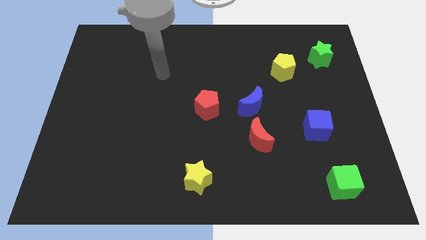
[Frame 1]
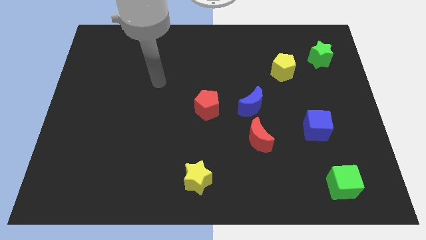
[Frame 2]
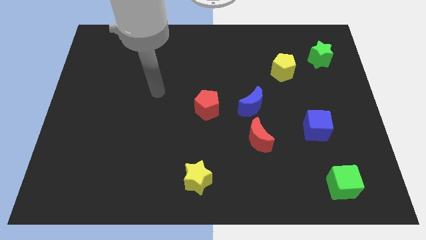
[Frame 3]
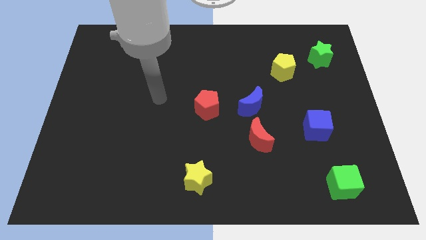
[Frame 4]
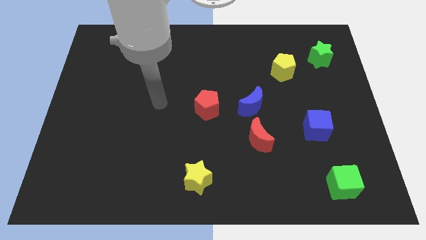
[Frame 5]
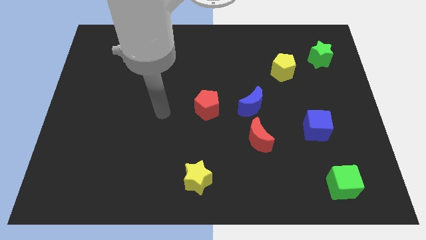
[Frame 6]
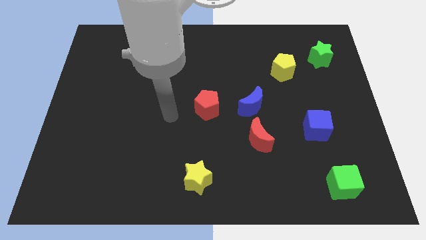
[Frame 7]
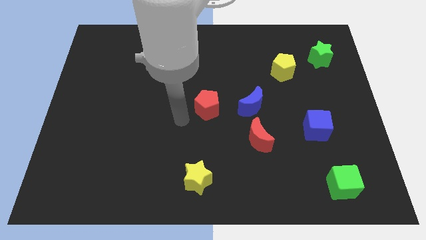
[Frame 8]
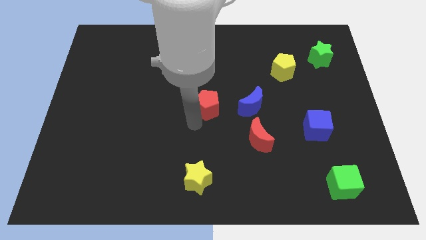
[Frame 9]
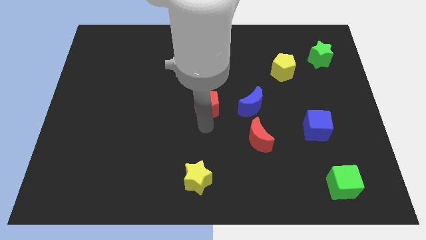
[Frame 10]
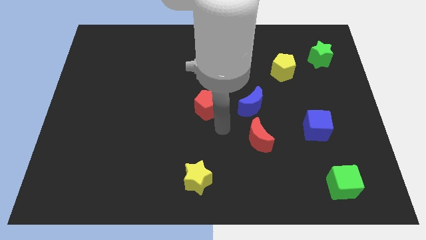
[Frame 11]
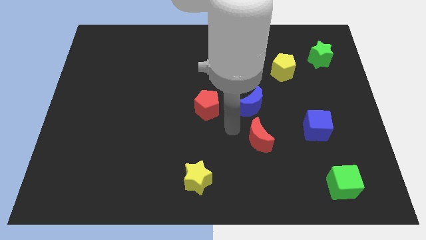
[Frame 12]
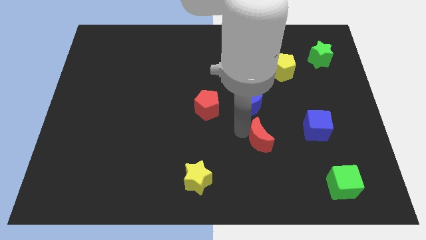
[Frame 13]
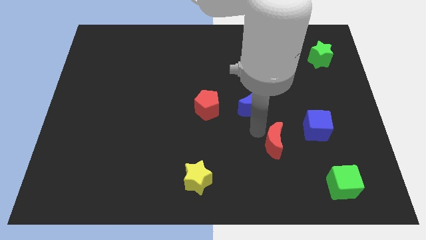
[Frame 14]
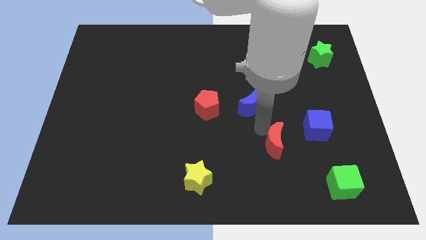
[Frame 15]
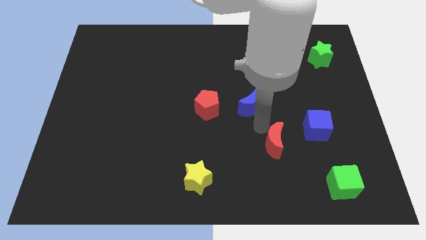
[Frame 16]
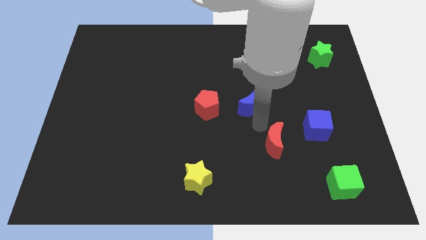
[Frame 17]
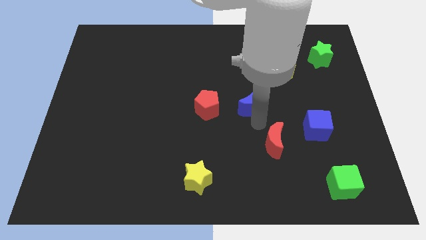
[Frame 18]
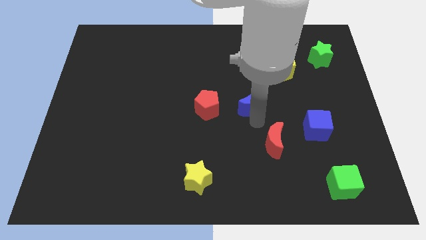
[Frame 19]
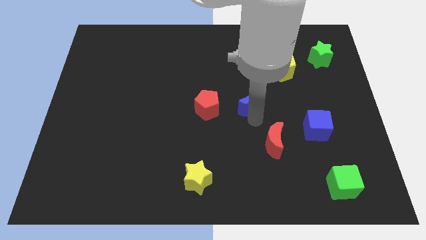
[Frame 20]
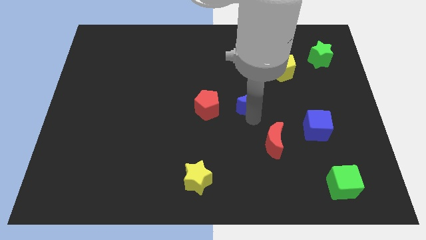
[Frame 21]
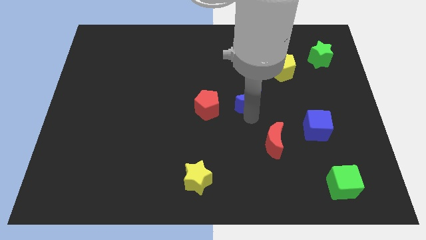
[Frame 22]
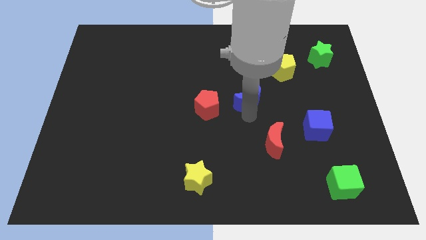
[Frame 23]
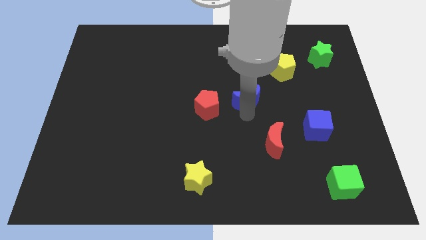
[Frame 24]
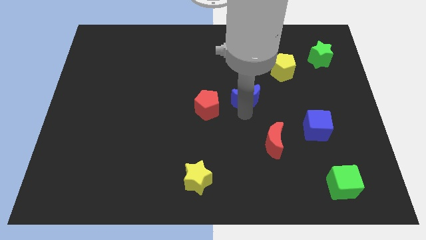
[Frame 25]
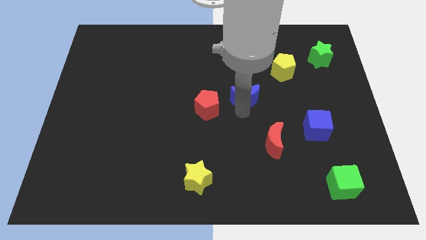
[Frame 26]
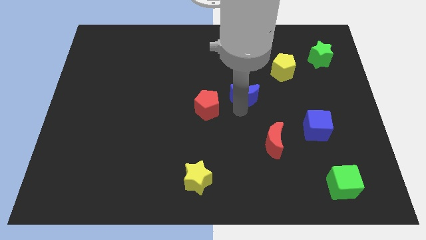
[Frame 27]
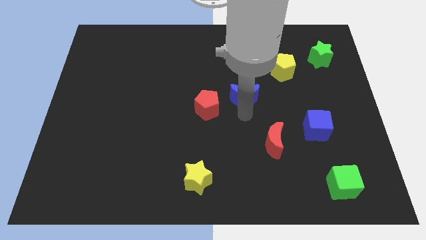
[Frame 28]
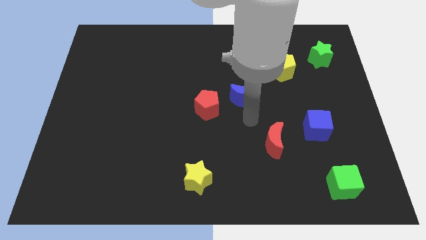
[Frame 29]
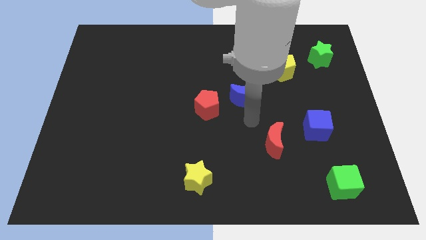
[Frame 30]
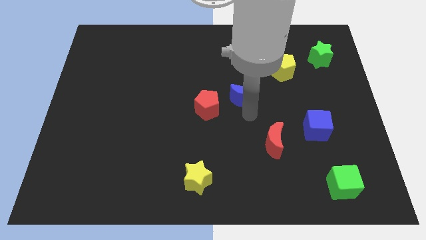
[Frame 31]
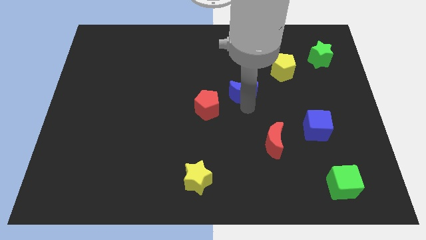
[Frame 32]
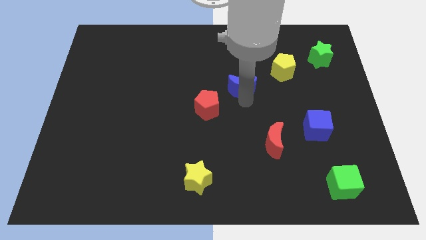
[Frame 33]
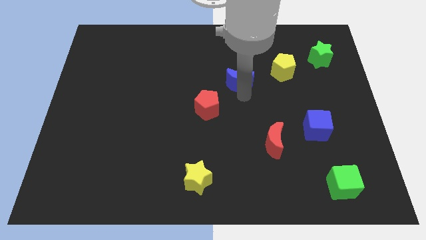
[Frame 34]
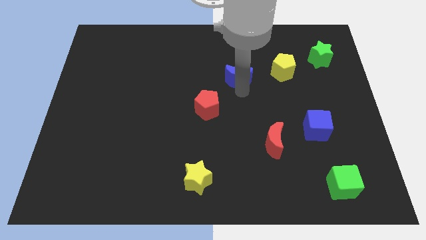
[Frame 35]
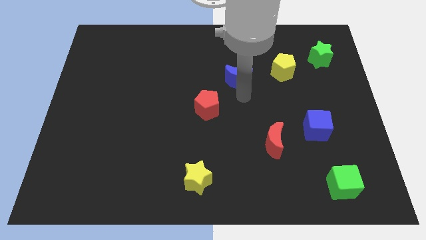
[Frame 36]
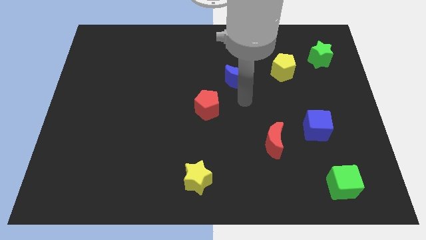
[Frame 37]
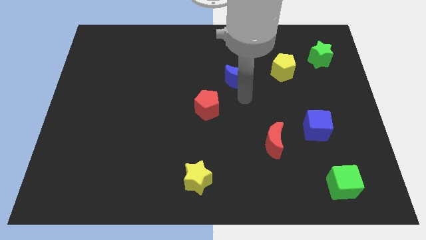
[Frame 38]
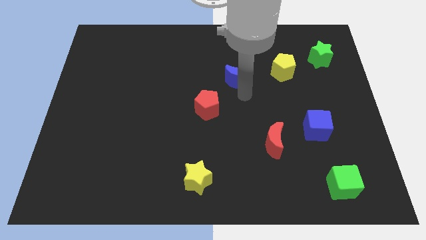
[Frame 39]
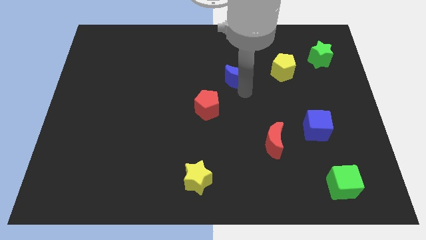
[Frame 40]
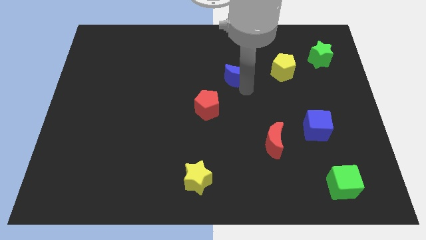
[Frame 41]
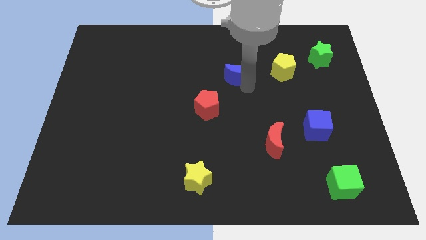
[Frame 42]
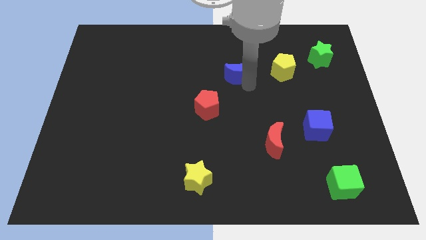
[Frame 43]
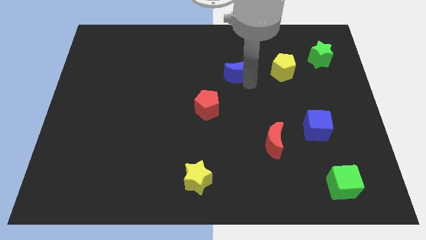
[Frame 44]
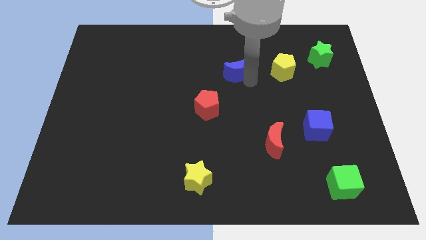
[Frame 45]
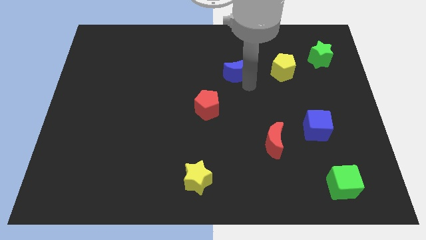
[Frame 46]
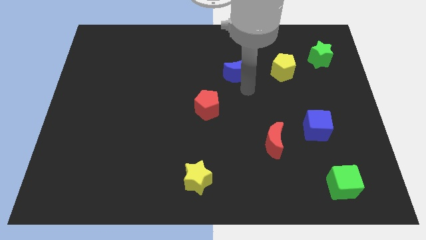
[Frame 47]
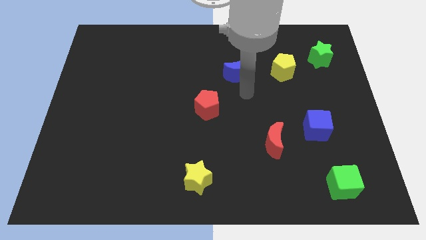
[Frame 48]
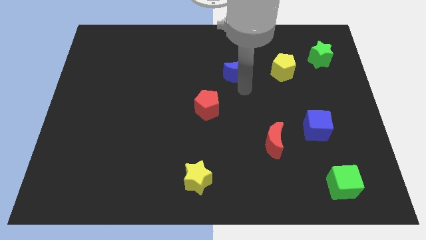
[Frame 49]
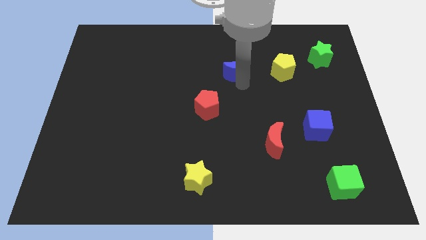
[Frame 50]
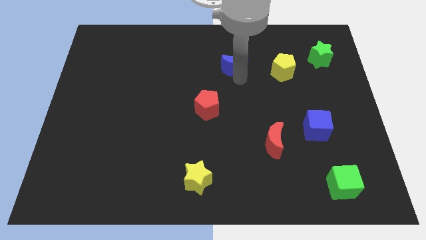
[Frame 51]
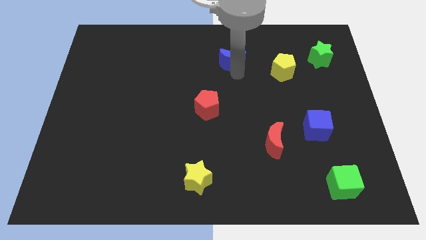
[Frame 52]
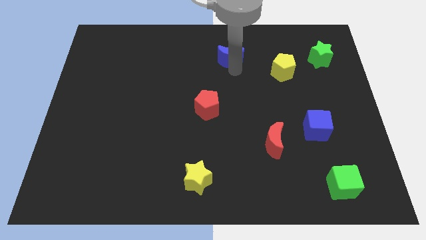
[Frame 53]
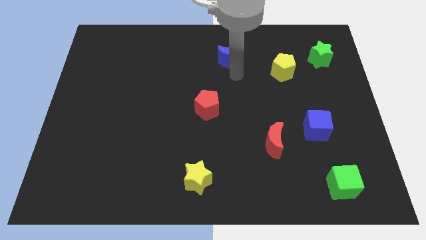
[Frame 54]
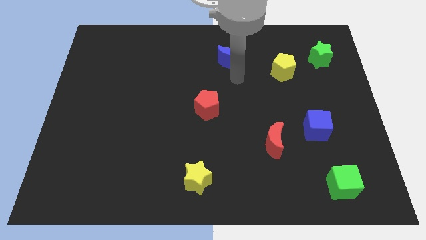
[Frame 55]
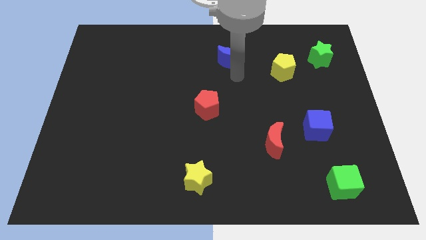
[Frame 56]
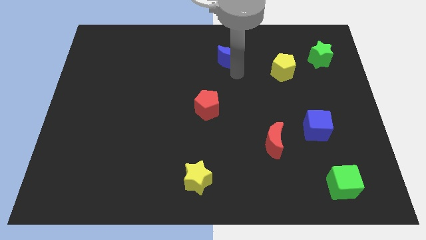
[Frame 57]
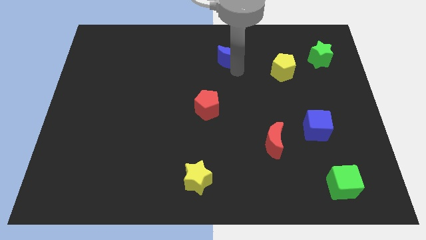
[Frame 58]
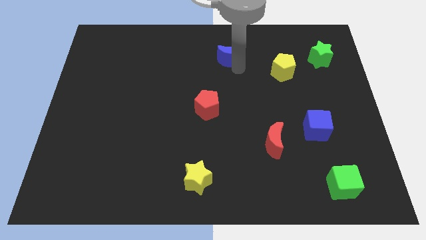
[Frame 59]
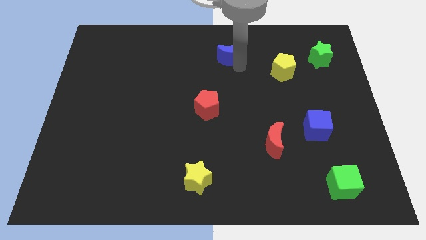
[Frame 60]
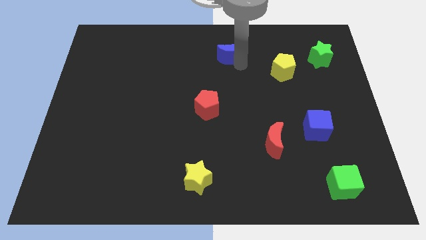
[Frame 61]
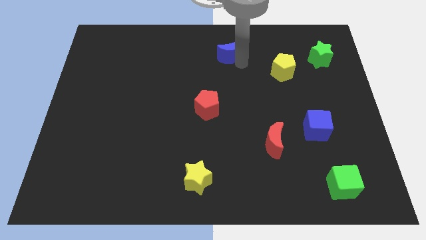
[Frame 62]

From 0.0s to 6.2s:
put the blue moon to the top side

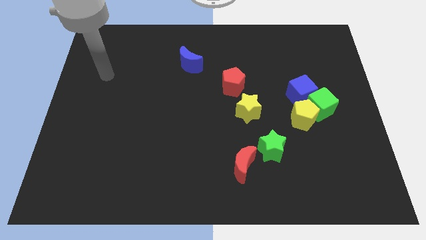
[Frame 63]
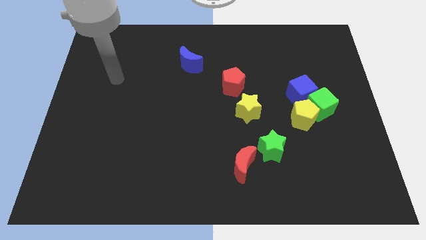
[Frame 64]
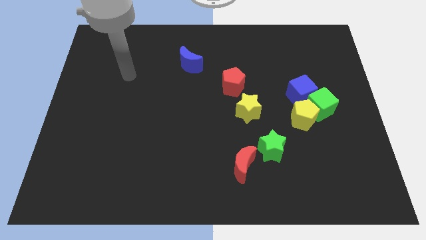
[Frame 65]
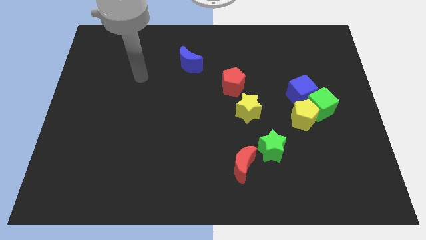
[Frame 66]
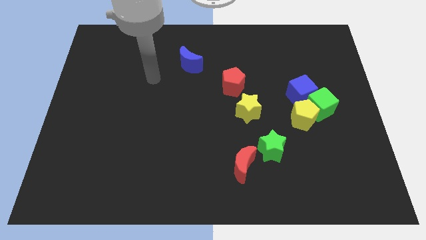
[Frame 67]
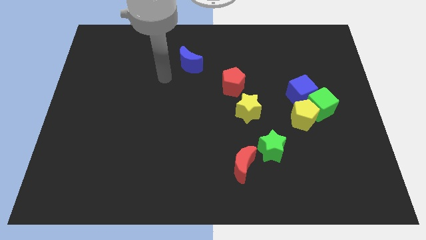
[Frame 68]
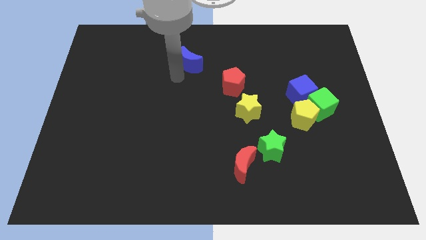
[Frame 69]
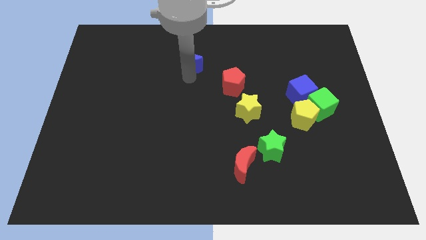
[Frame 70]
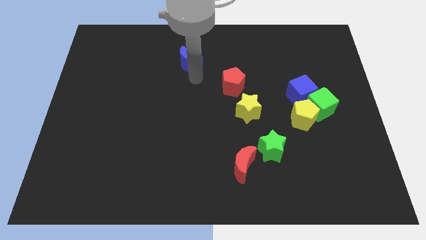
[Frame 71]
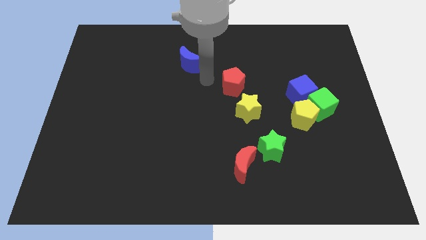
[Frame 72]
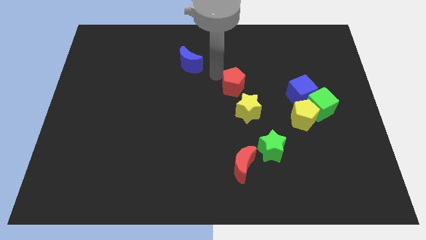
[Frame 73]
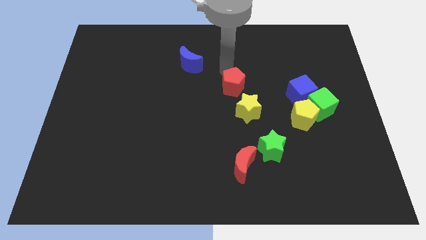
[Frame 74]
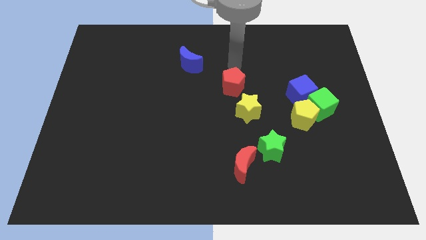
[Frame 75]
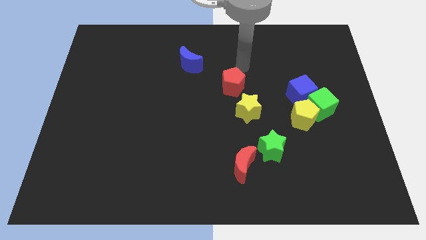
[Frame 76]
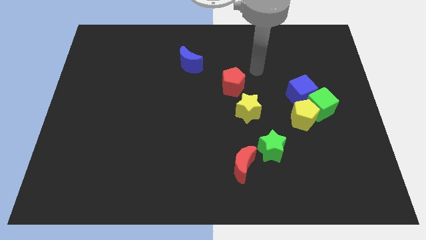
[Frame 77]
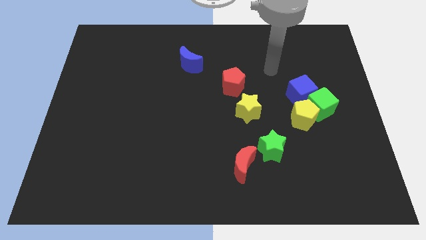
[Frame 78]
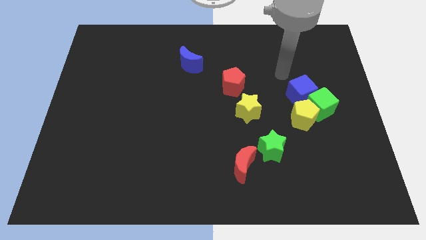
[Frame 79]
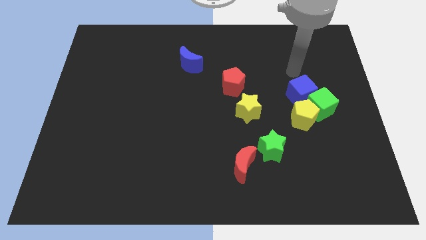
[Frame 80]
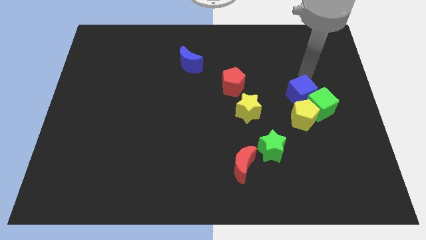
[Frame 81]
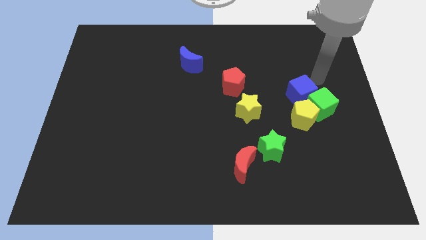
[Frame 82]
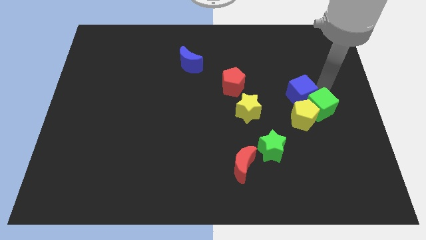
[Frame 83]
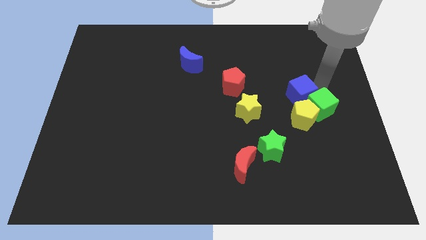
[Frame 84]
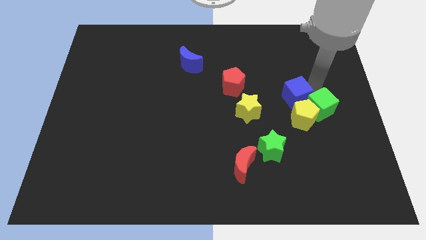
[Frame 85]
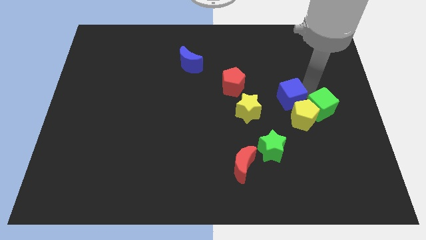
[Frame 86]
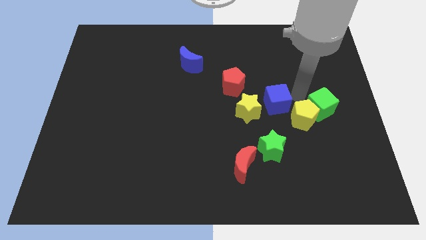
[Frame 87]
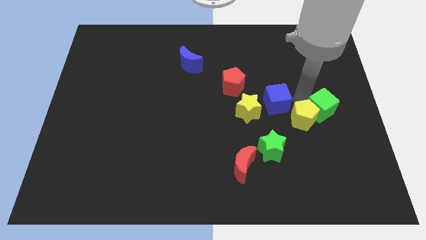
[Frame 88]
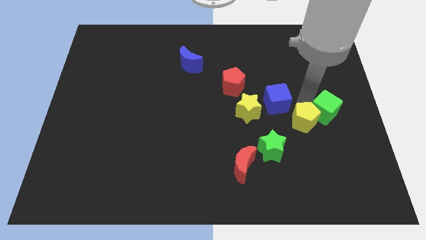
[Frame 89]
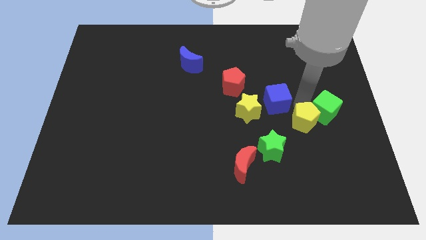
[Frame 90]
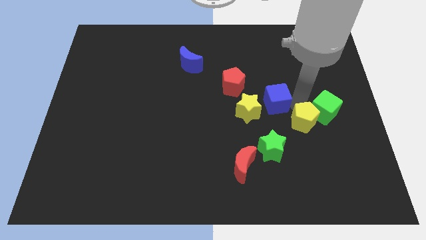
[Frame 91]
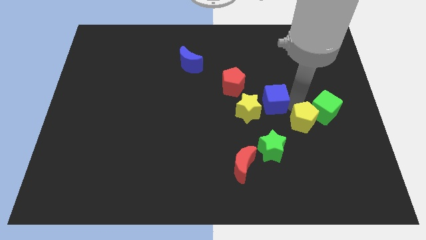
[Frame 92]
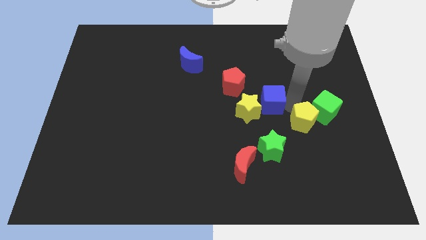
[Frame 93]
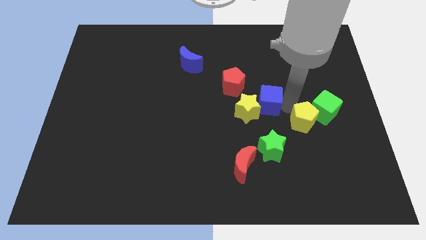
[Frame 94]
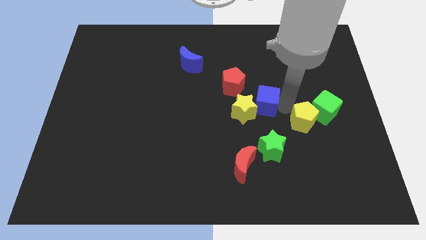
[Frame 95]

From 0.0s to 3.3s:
push the blue cube to the center of the board
